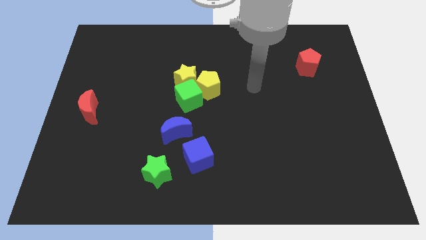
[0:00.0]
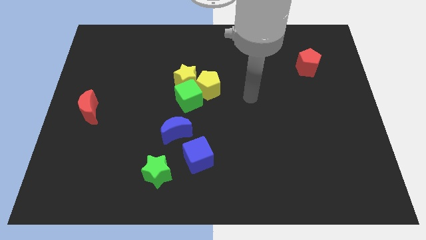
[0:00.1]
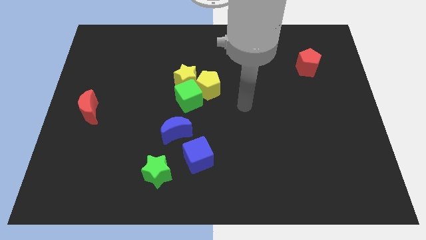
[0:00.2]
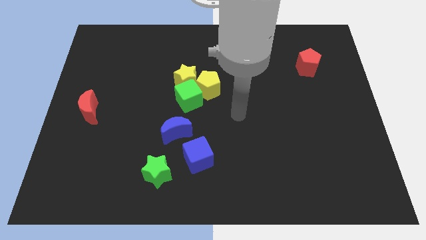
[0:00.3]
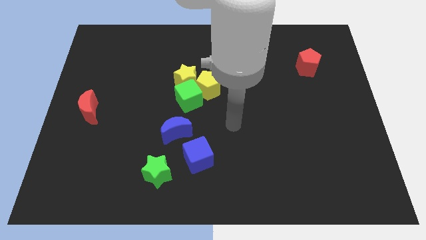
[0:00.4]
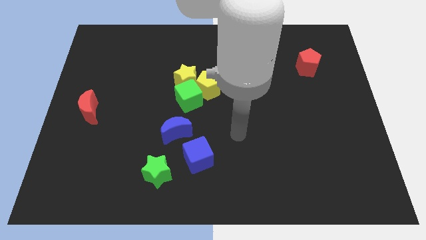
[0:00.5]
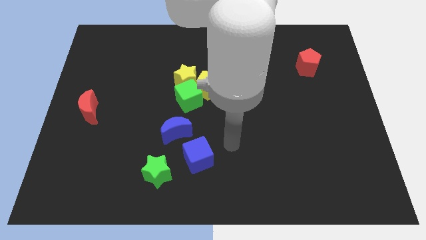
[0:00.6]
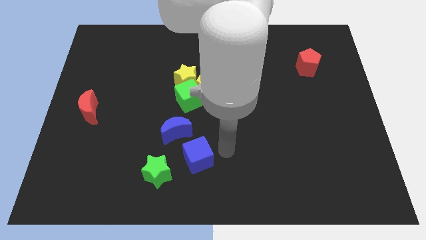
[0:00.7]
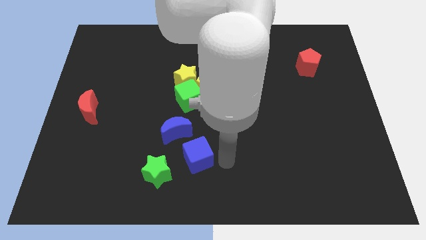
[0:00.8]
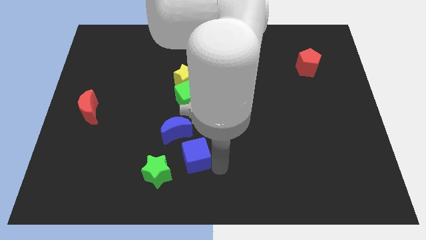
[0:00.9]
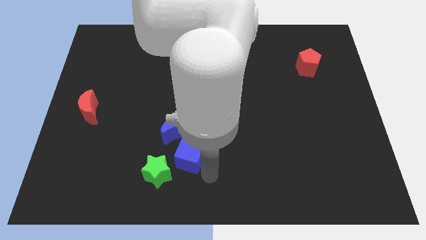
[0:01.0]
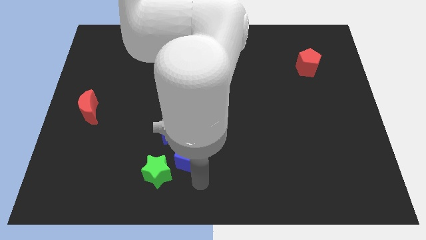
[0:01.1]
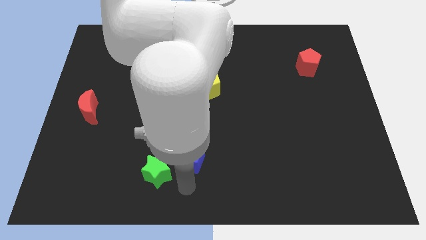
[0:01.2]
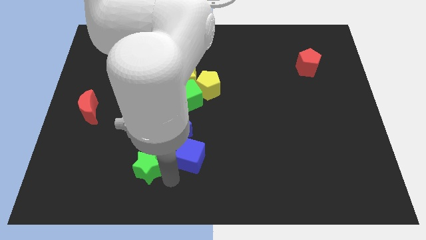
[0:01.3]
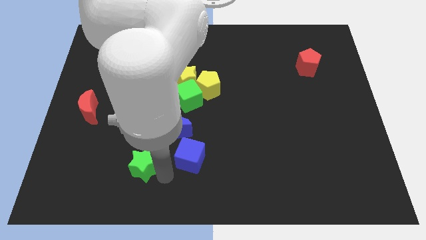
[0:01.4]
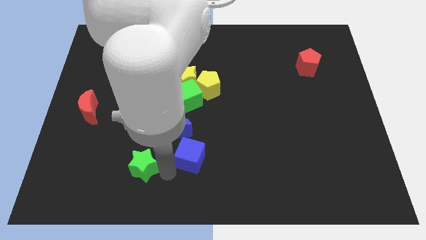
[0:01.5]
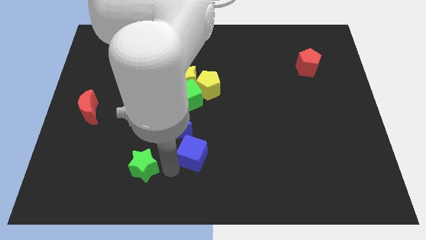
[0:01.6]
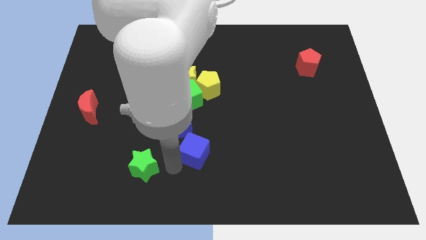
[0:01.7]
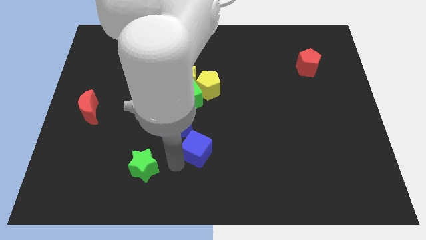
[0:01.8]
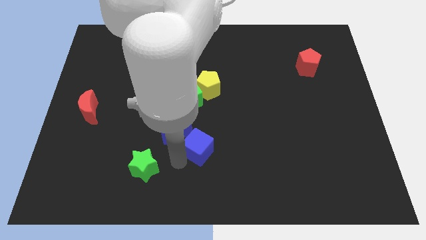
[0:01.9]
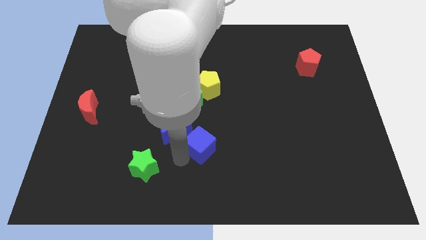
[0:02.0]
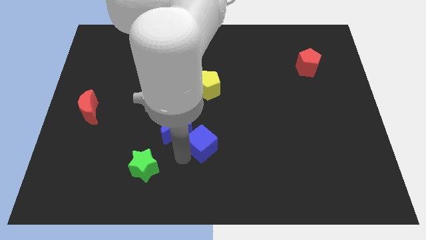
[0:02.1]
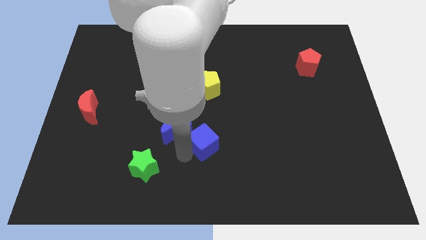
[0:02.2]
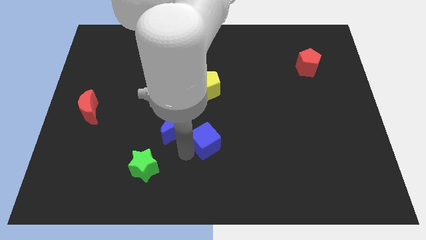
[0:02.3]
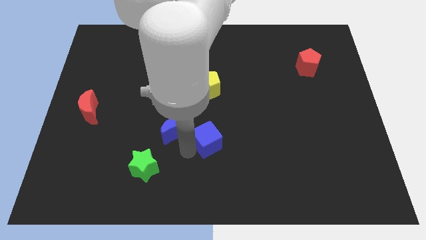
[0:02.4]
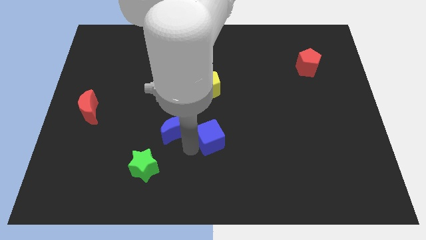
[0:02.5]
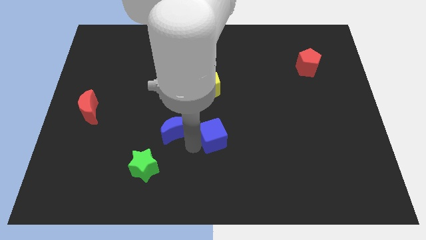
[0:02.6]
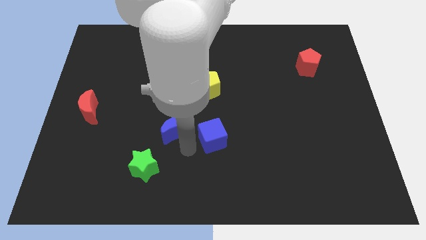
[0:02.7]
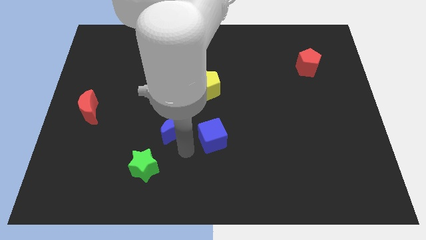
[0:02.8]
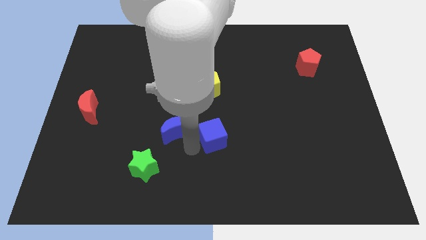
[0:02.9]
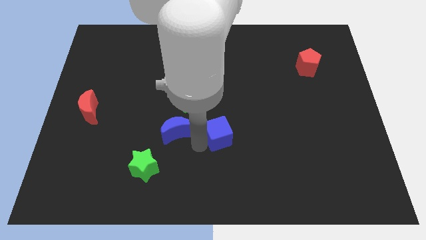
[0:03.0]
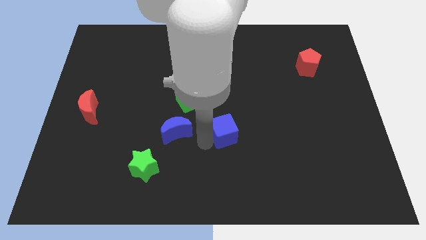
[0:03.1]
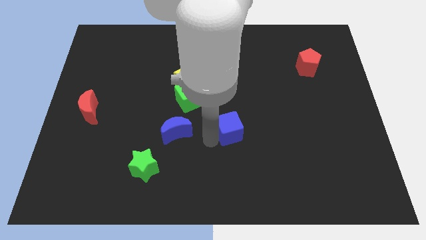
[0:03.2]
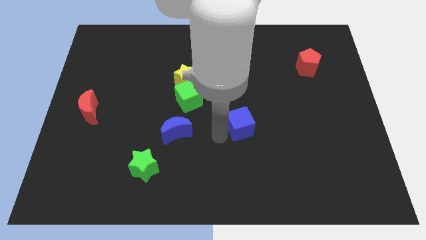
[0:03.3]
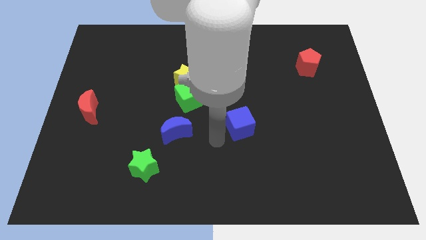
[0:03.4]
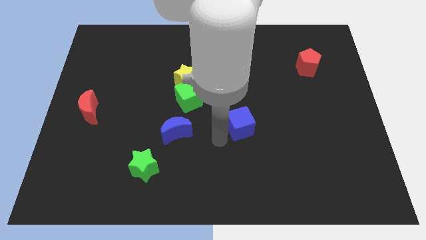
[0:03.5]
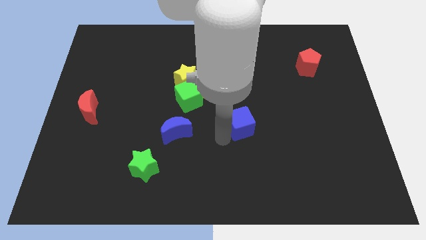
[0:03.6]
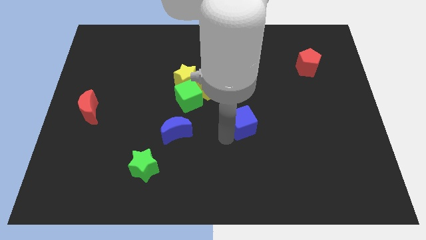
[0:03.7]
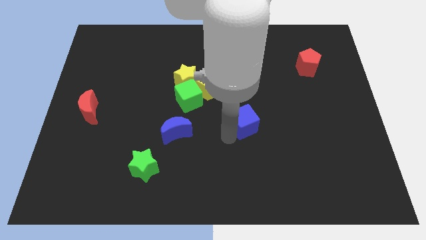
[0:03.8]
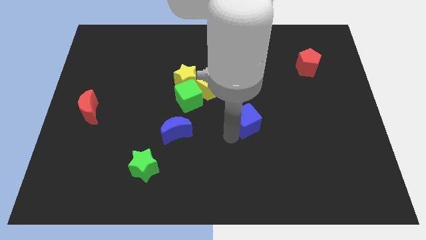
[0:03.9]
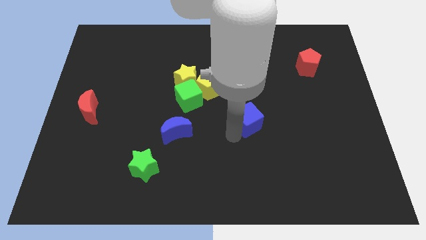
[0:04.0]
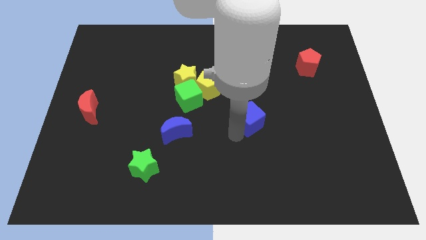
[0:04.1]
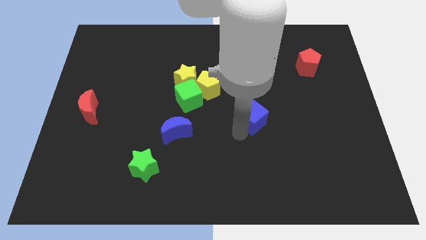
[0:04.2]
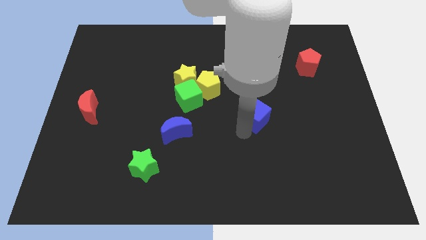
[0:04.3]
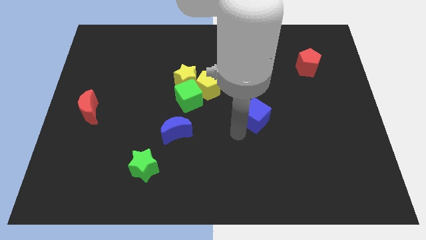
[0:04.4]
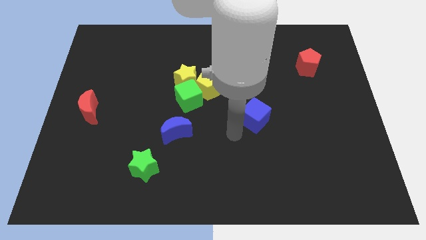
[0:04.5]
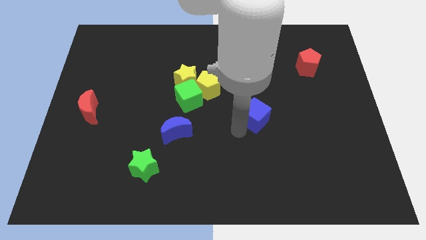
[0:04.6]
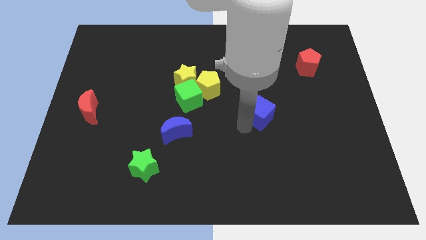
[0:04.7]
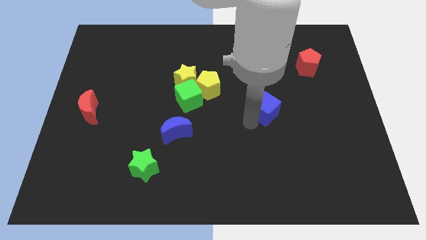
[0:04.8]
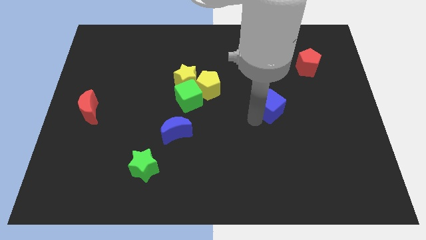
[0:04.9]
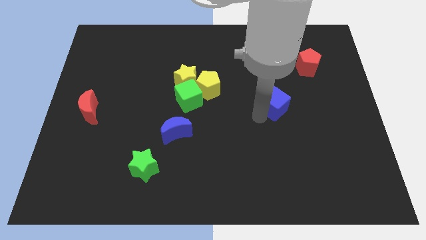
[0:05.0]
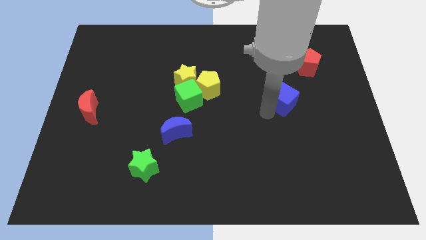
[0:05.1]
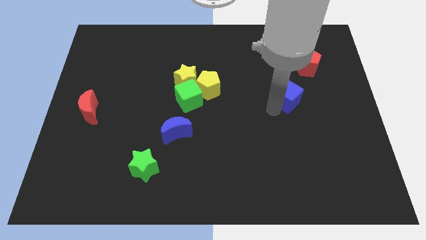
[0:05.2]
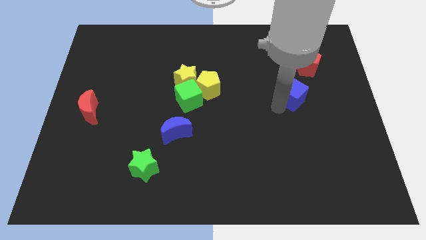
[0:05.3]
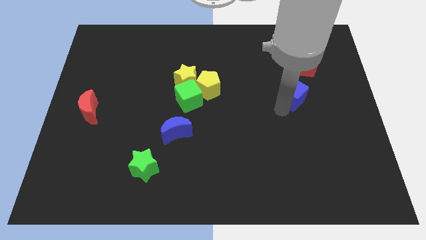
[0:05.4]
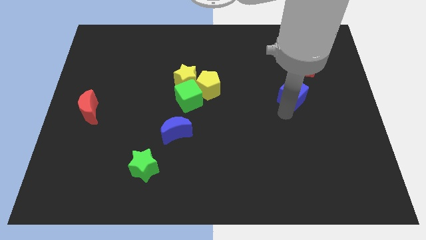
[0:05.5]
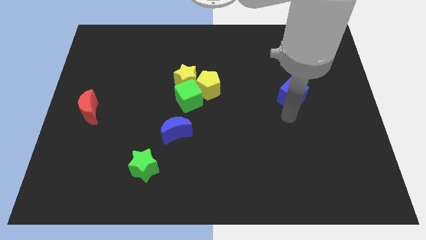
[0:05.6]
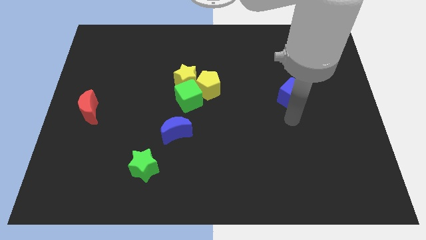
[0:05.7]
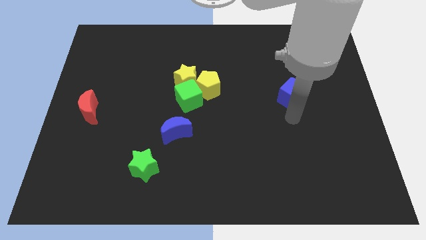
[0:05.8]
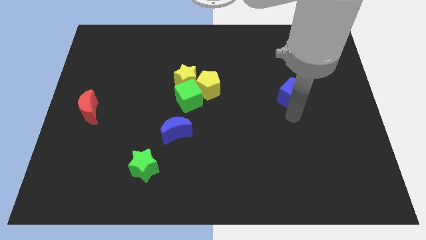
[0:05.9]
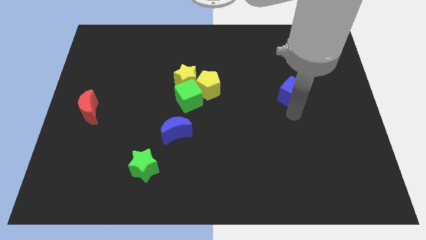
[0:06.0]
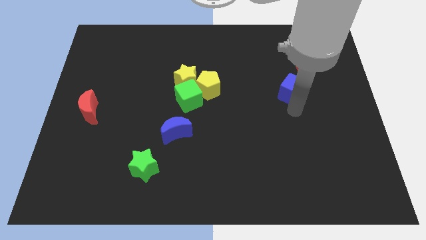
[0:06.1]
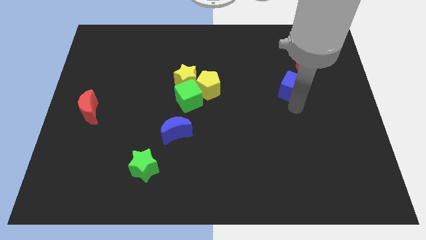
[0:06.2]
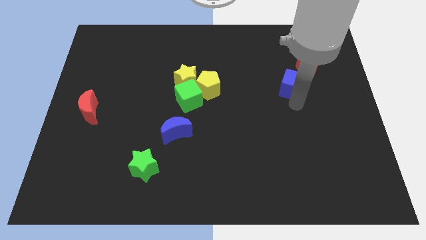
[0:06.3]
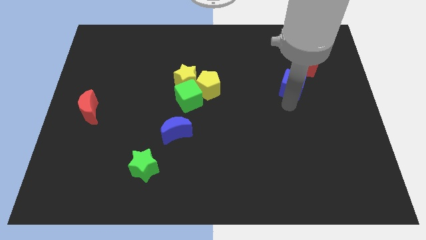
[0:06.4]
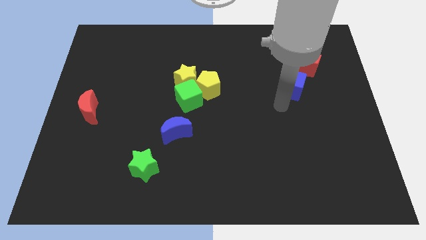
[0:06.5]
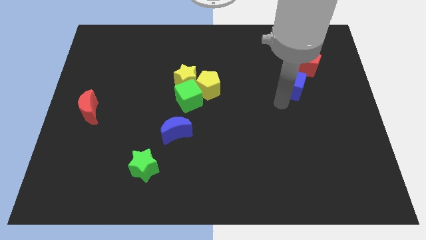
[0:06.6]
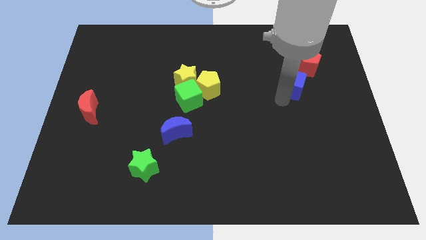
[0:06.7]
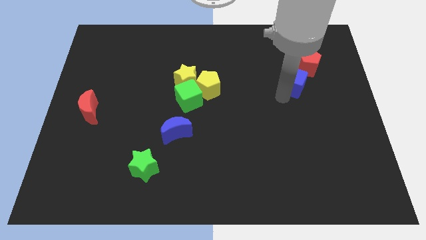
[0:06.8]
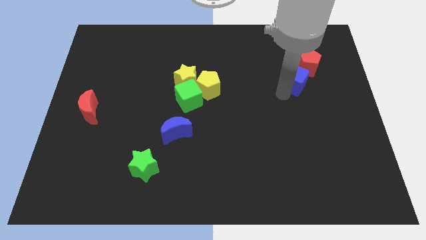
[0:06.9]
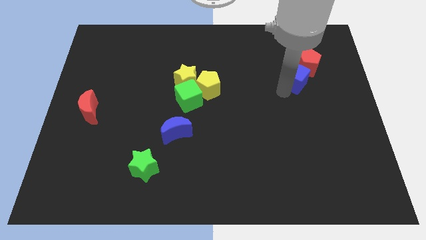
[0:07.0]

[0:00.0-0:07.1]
push the blue cube close to the red pentagon

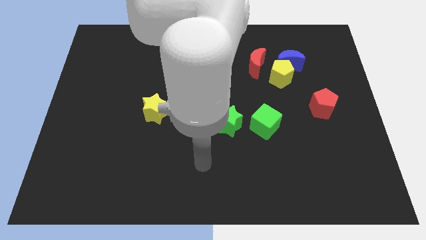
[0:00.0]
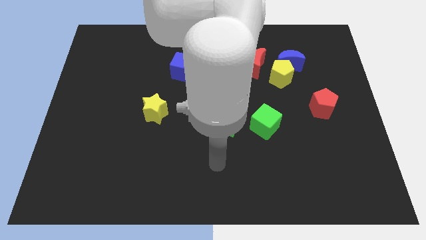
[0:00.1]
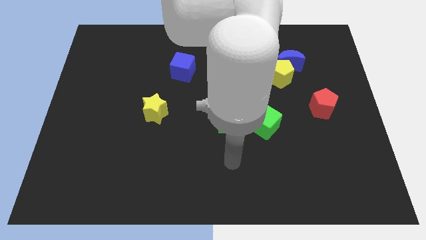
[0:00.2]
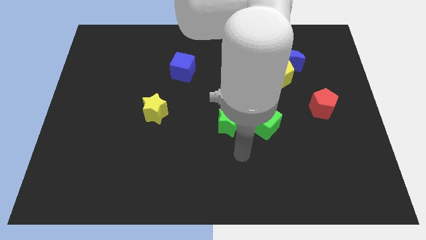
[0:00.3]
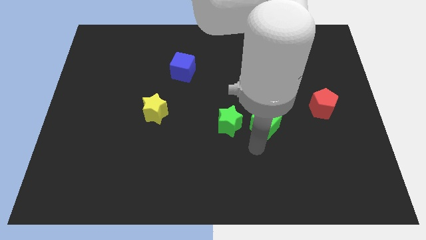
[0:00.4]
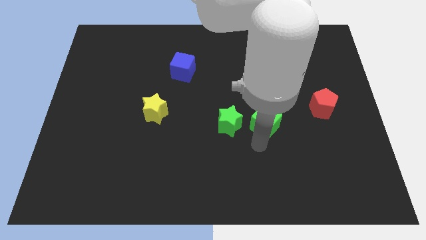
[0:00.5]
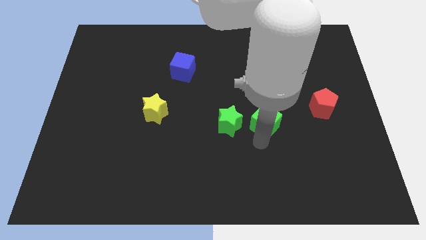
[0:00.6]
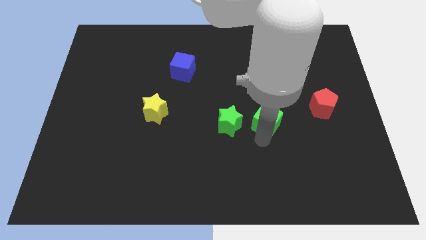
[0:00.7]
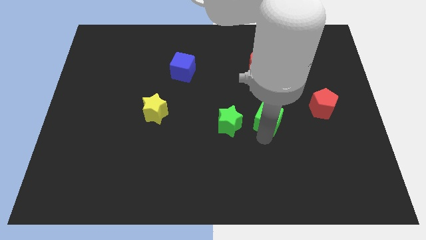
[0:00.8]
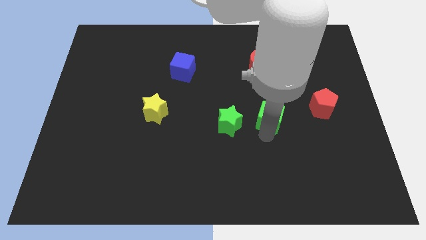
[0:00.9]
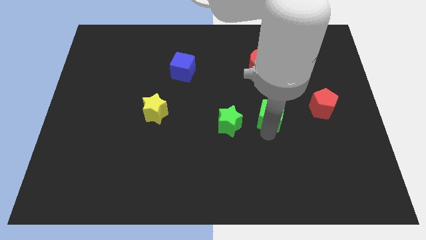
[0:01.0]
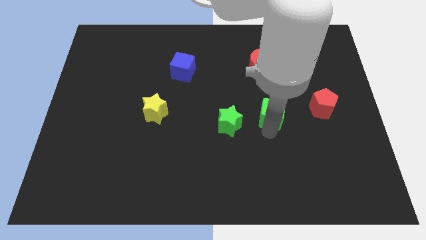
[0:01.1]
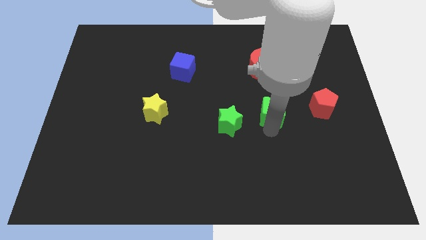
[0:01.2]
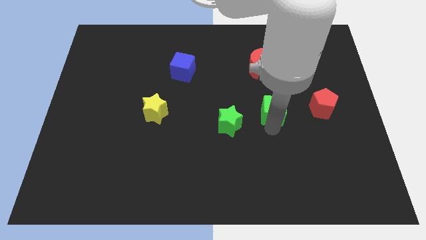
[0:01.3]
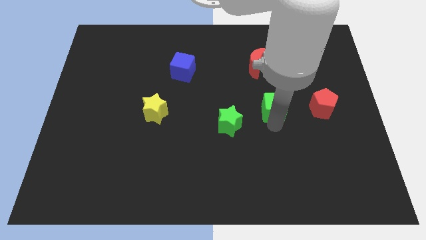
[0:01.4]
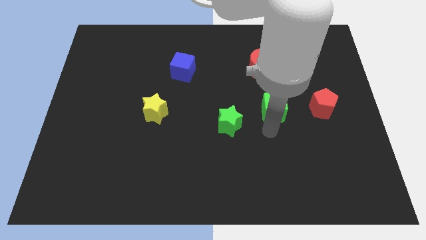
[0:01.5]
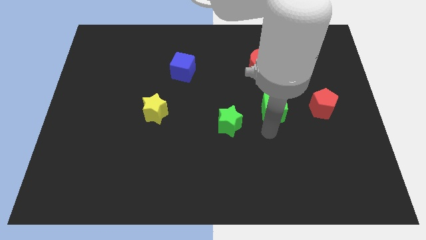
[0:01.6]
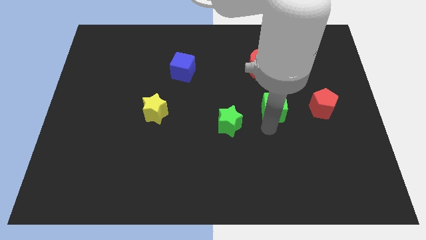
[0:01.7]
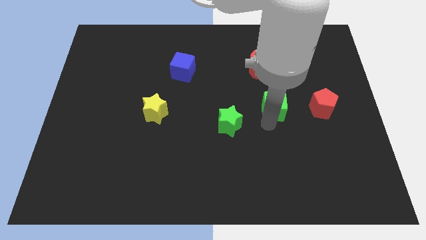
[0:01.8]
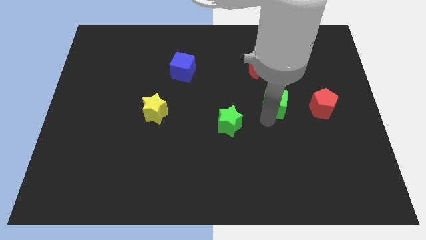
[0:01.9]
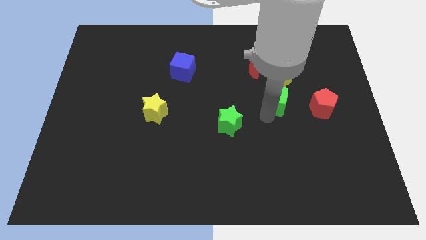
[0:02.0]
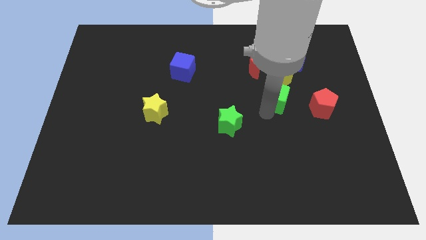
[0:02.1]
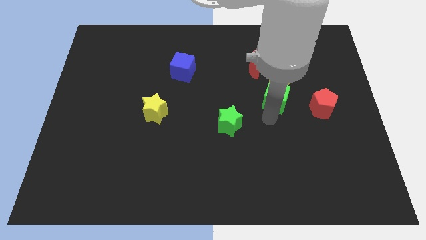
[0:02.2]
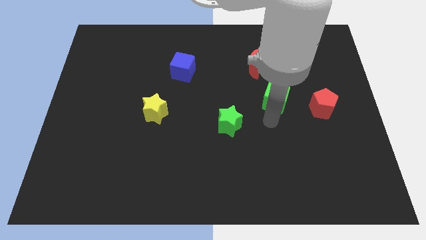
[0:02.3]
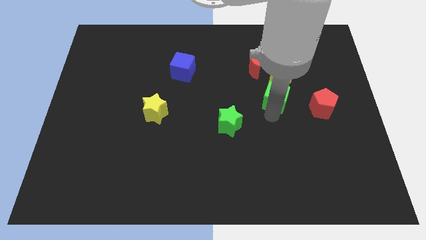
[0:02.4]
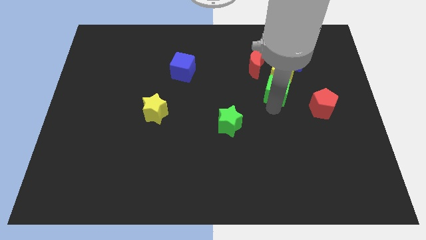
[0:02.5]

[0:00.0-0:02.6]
move the green cube next to the yellow pentagon
